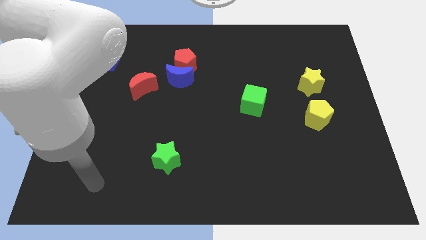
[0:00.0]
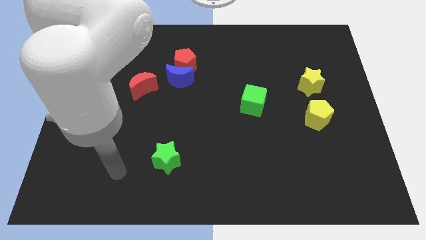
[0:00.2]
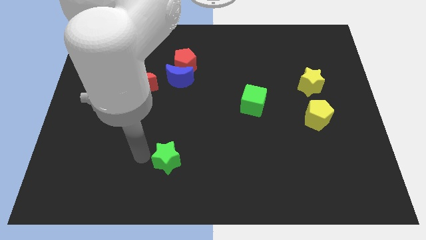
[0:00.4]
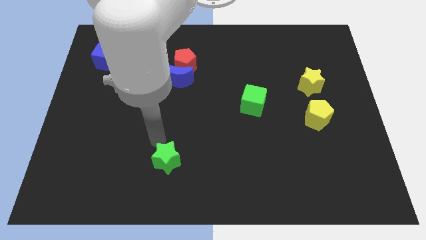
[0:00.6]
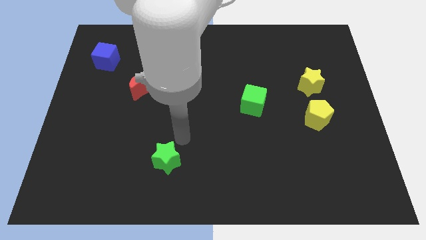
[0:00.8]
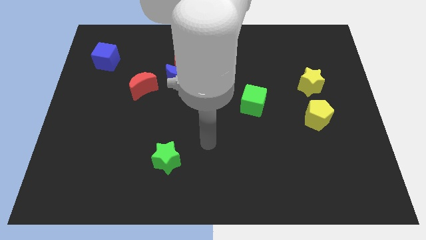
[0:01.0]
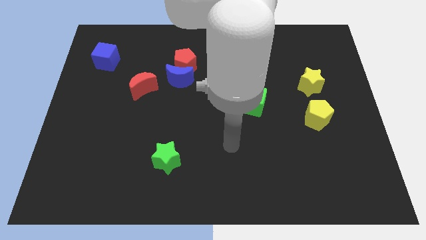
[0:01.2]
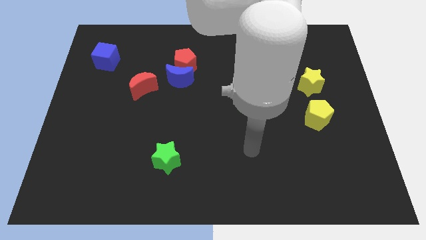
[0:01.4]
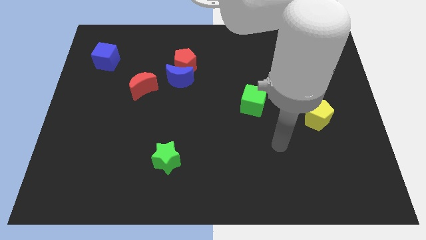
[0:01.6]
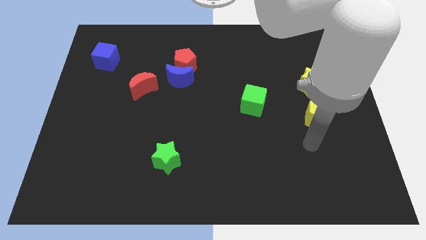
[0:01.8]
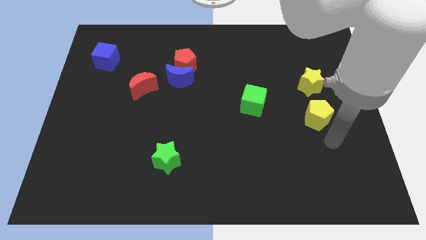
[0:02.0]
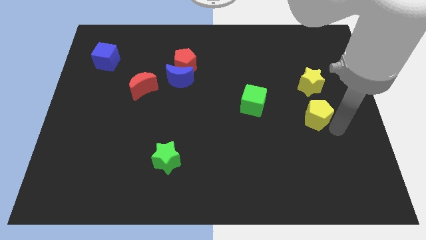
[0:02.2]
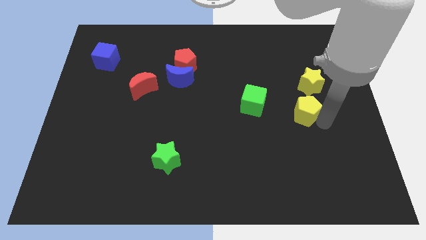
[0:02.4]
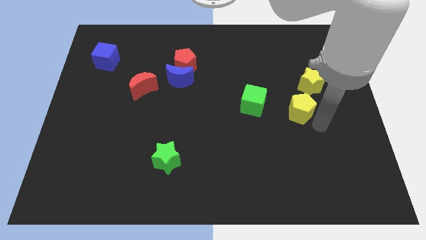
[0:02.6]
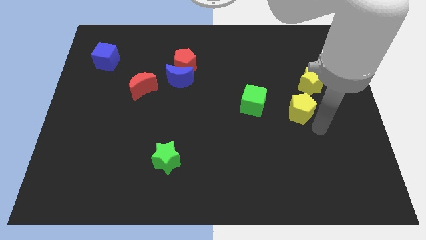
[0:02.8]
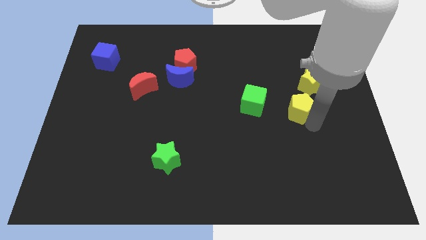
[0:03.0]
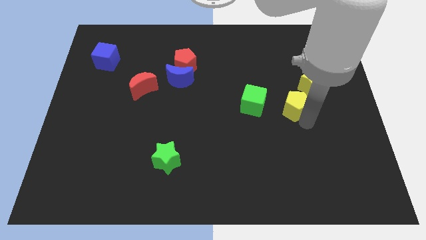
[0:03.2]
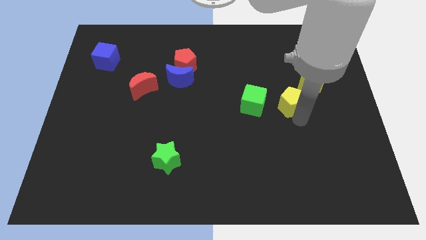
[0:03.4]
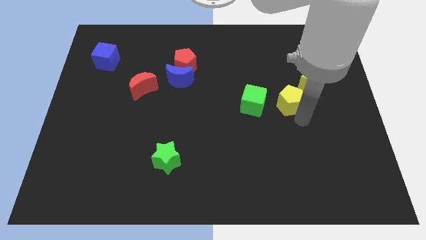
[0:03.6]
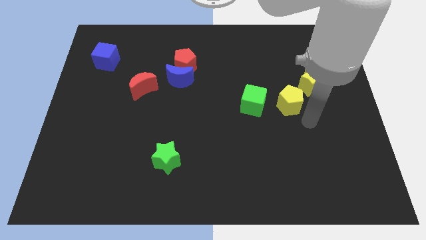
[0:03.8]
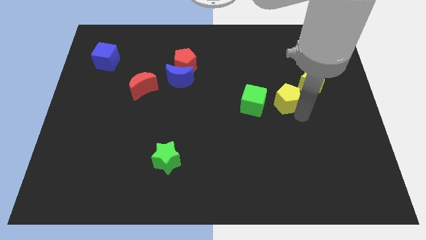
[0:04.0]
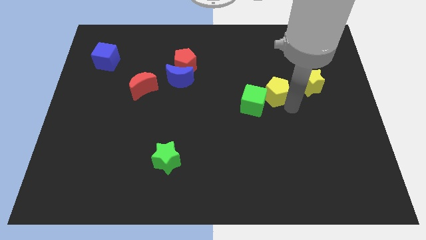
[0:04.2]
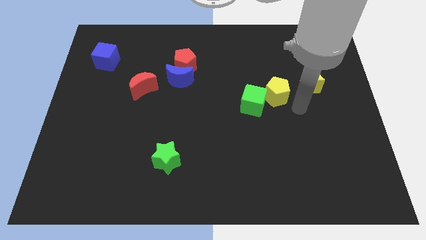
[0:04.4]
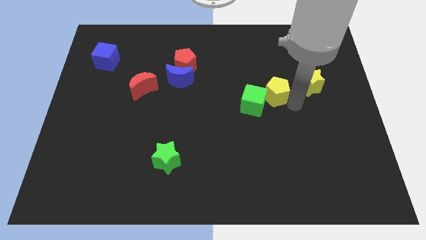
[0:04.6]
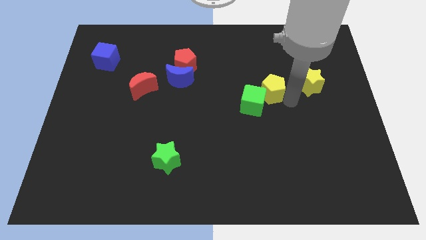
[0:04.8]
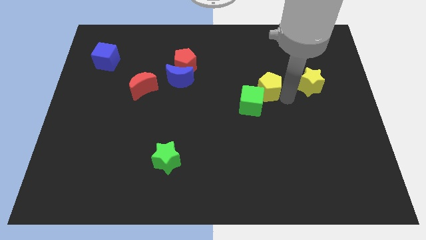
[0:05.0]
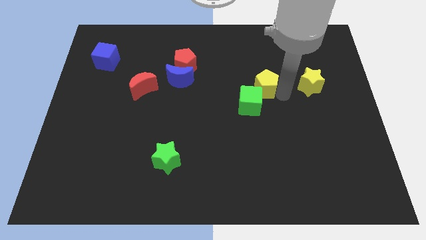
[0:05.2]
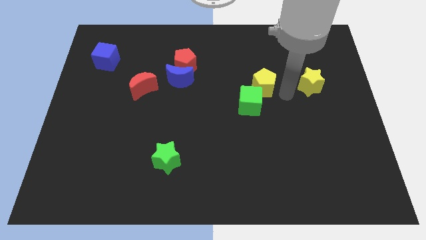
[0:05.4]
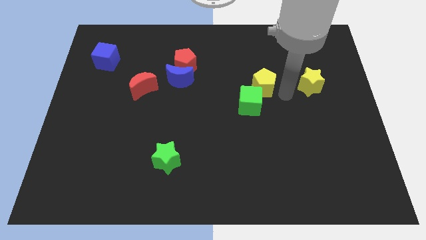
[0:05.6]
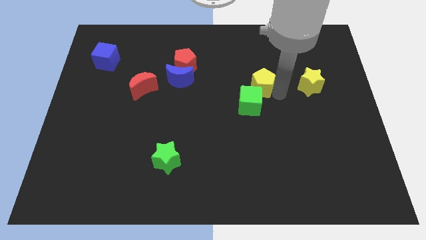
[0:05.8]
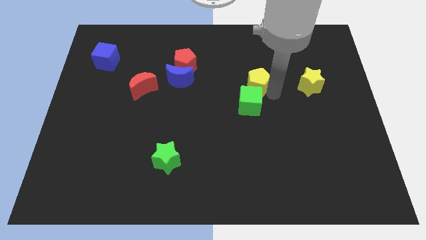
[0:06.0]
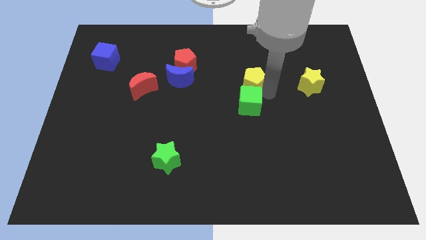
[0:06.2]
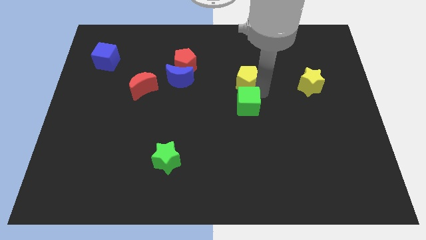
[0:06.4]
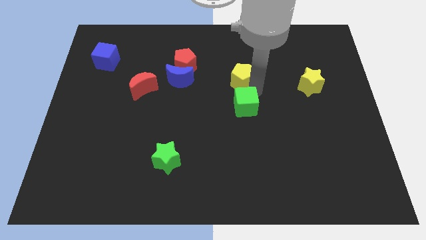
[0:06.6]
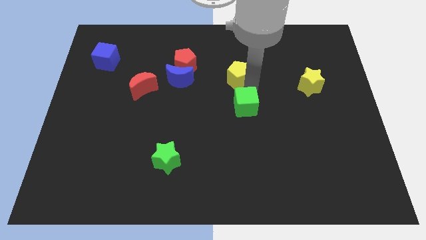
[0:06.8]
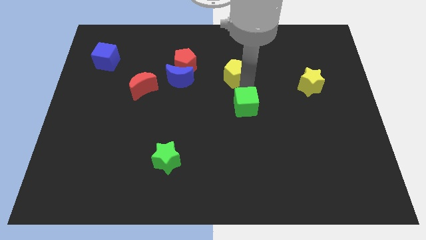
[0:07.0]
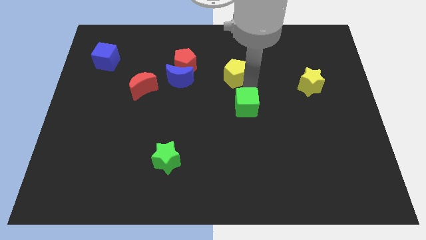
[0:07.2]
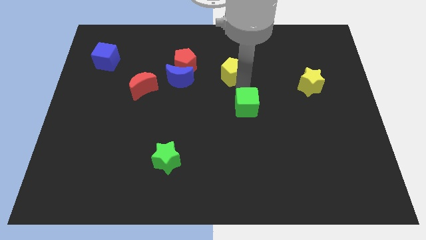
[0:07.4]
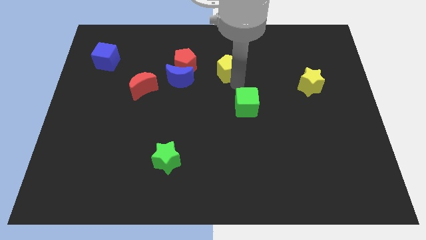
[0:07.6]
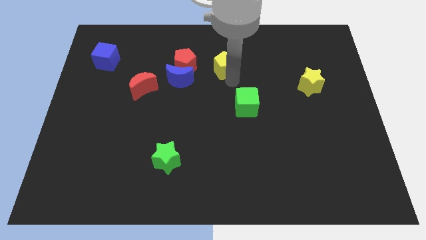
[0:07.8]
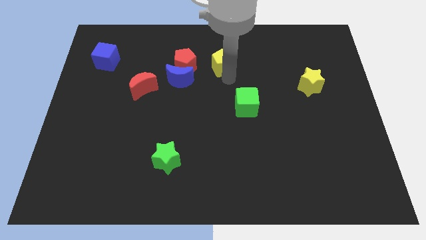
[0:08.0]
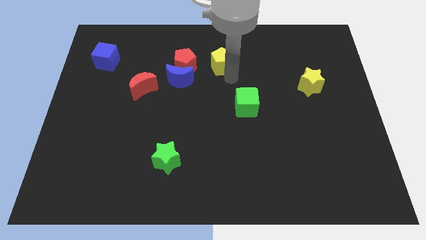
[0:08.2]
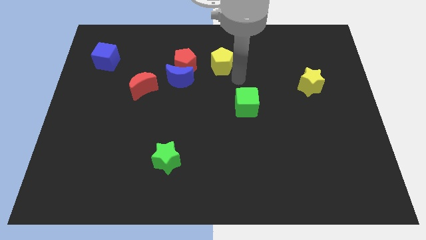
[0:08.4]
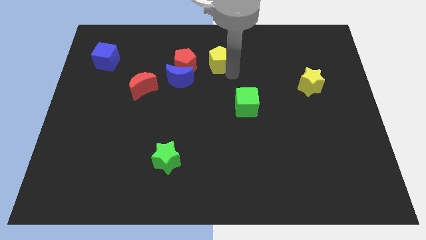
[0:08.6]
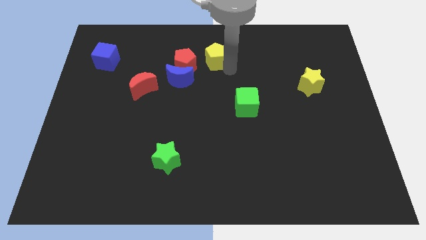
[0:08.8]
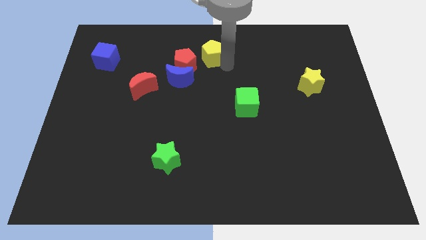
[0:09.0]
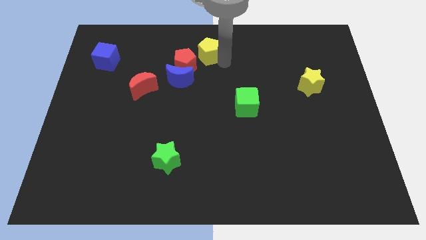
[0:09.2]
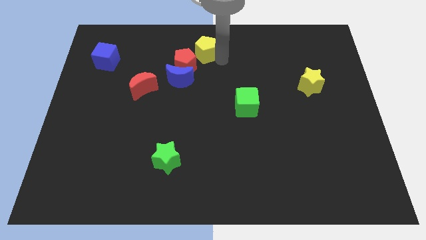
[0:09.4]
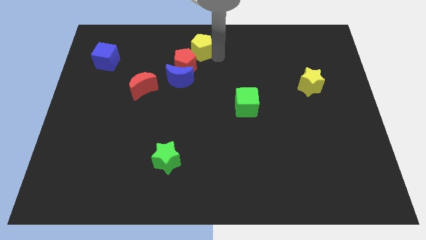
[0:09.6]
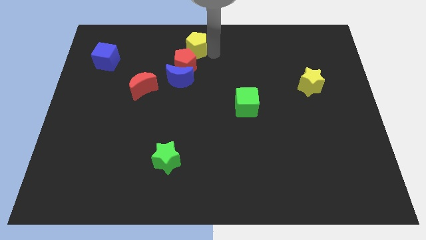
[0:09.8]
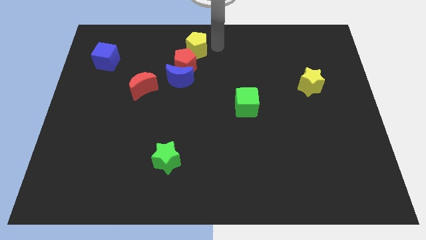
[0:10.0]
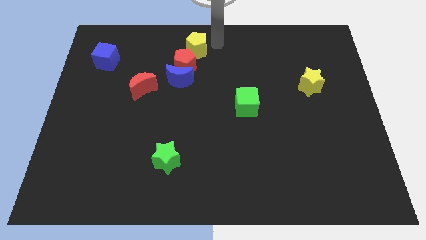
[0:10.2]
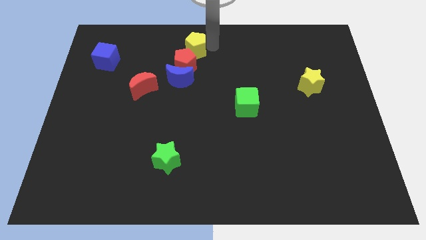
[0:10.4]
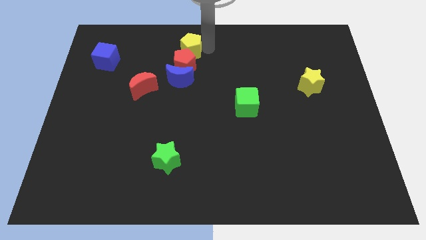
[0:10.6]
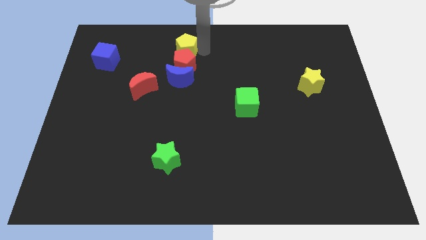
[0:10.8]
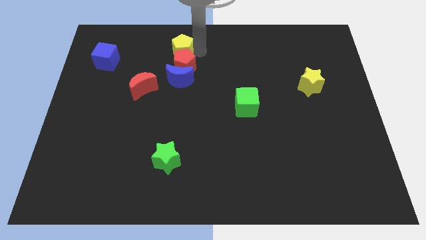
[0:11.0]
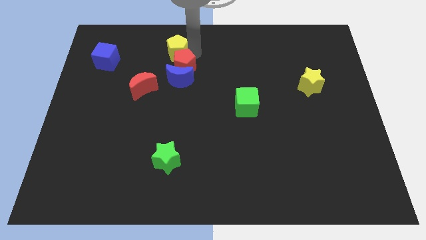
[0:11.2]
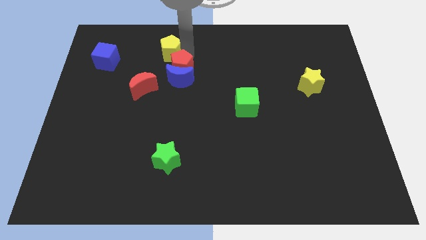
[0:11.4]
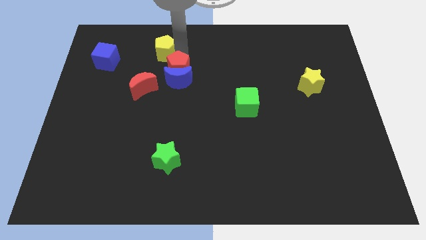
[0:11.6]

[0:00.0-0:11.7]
push the yellow pentagon to the right of the blue cube

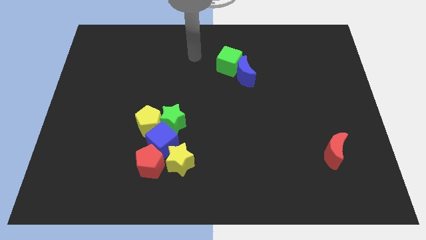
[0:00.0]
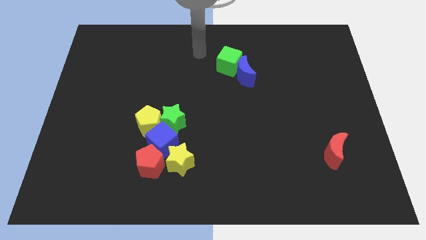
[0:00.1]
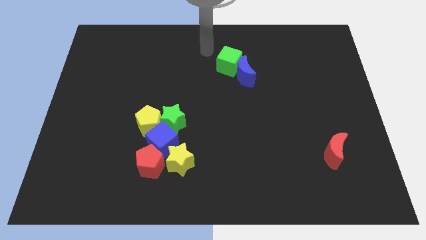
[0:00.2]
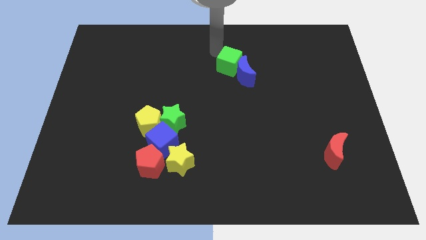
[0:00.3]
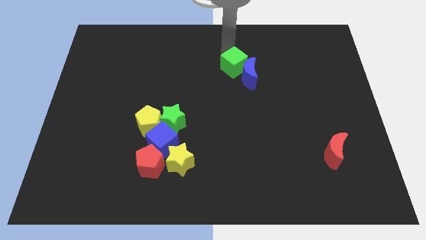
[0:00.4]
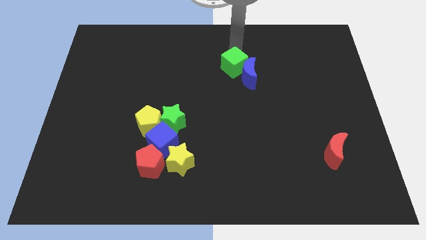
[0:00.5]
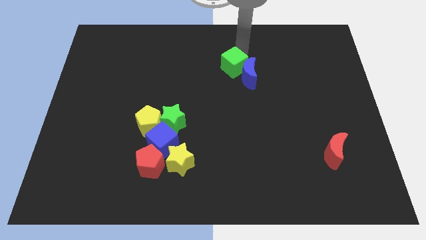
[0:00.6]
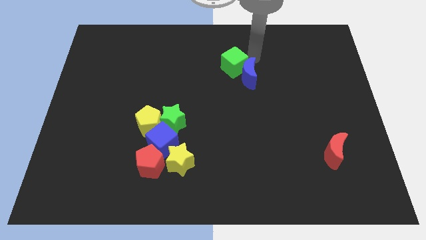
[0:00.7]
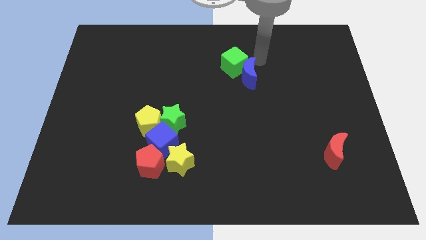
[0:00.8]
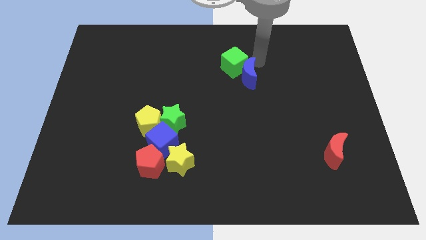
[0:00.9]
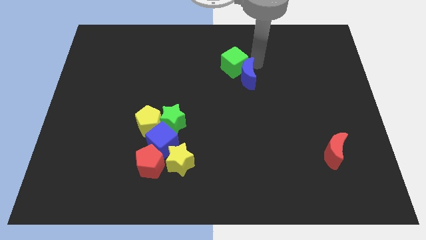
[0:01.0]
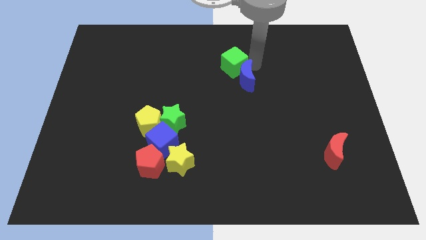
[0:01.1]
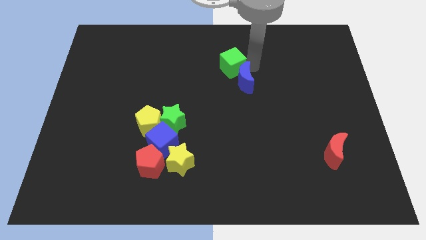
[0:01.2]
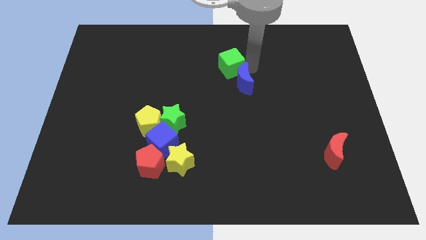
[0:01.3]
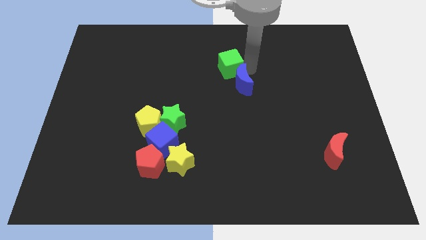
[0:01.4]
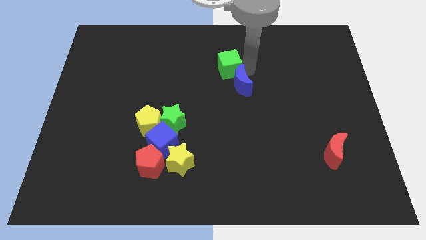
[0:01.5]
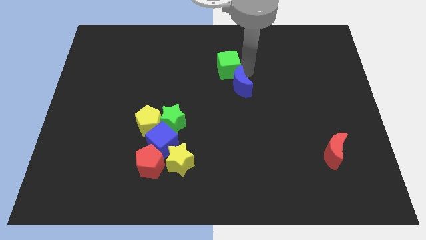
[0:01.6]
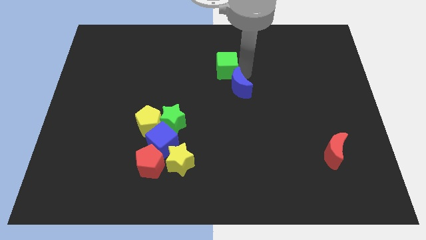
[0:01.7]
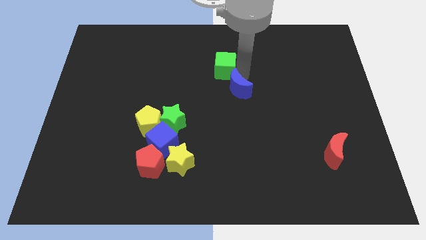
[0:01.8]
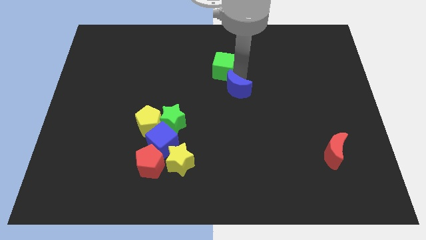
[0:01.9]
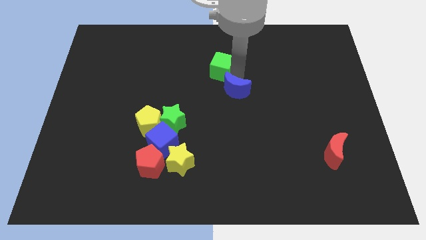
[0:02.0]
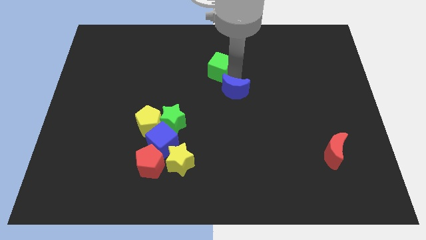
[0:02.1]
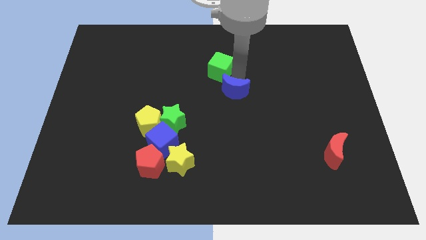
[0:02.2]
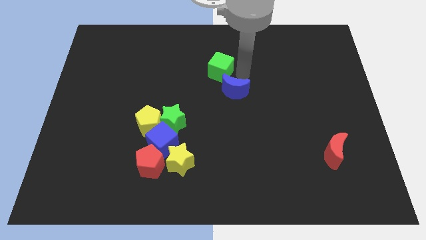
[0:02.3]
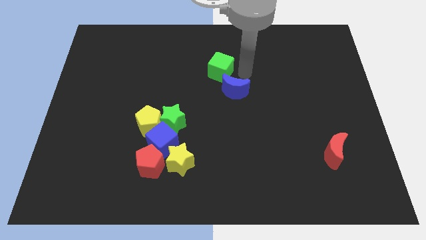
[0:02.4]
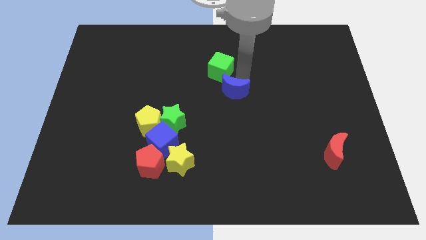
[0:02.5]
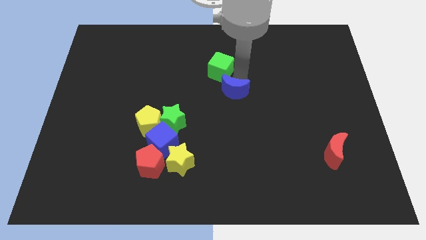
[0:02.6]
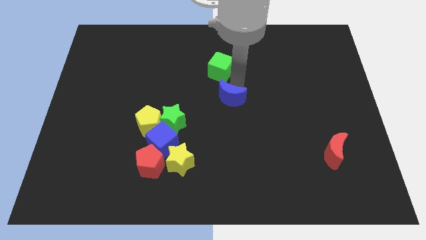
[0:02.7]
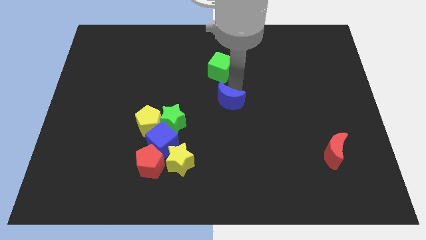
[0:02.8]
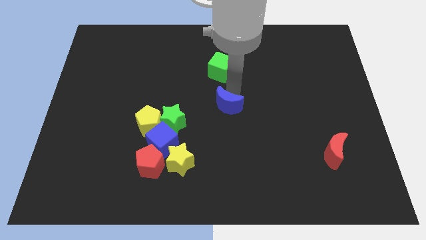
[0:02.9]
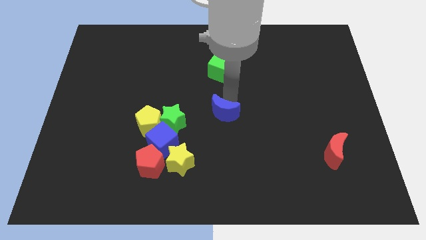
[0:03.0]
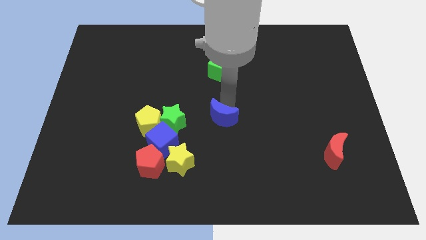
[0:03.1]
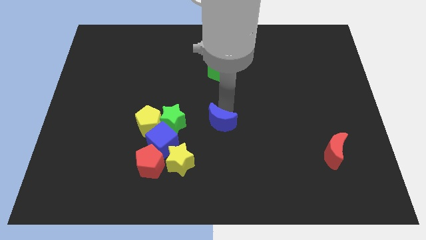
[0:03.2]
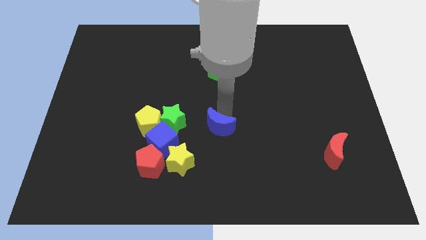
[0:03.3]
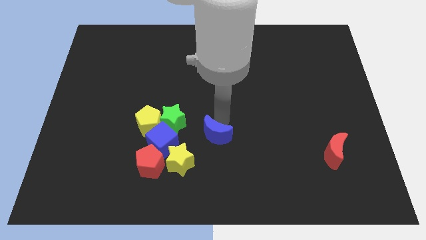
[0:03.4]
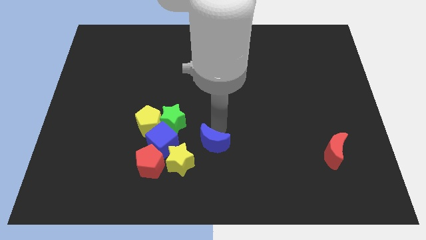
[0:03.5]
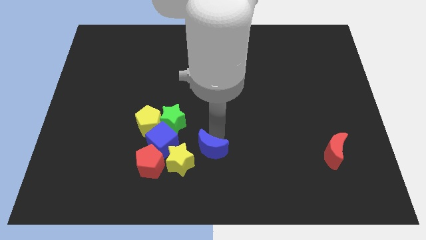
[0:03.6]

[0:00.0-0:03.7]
push the blue moon to the right side of the red pentagon
